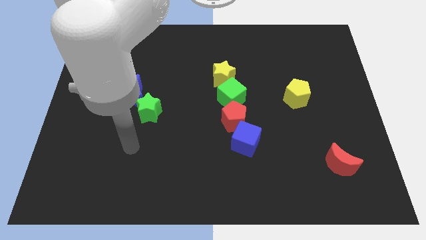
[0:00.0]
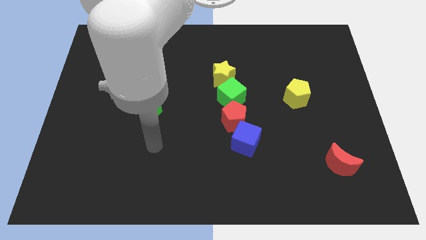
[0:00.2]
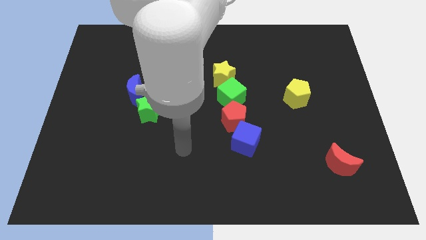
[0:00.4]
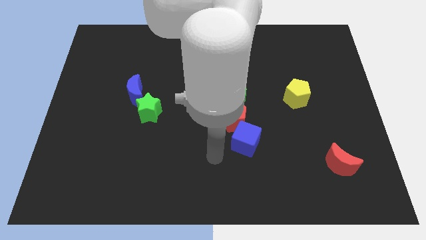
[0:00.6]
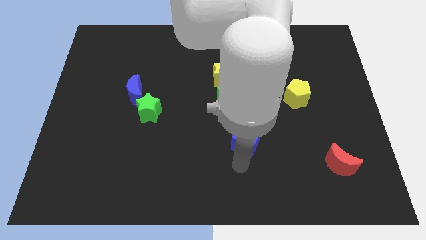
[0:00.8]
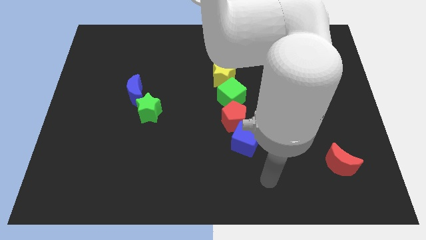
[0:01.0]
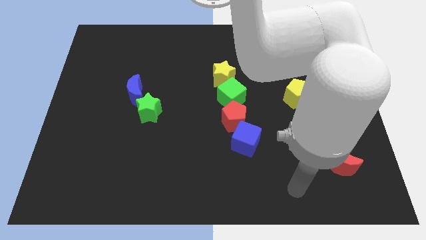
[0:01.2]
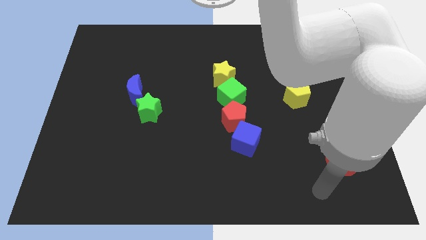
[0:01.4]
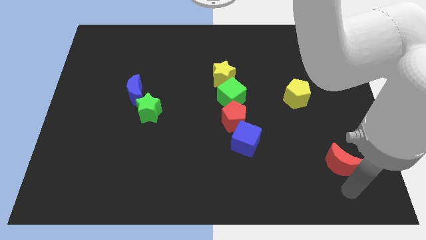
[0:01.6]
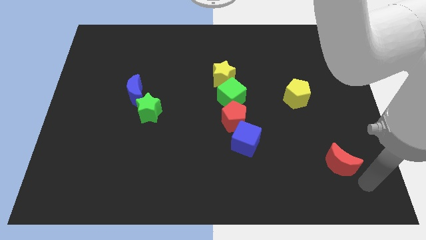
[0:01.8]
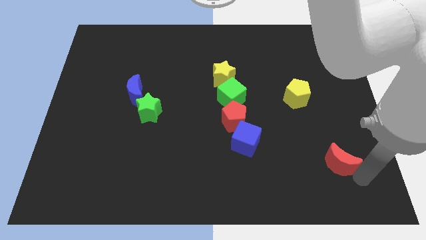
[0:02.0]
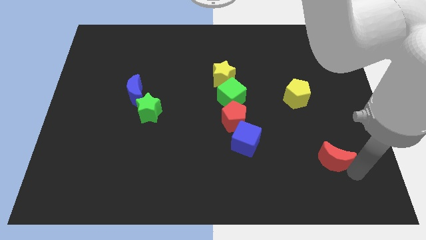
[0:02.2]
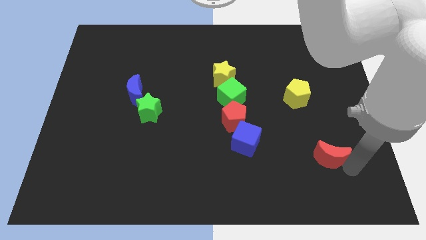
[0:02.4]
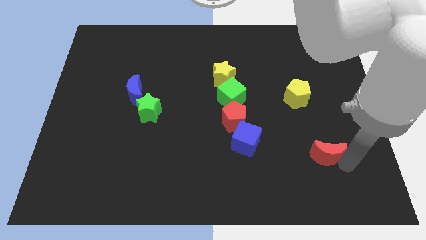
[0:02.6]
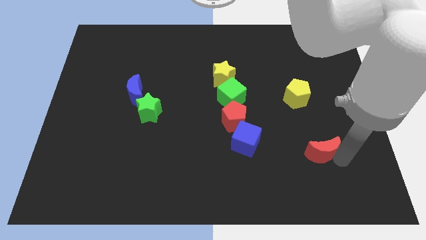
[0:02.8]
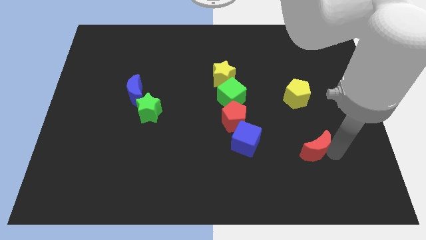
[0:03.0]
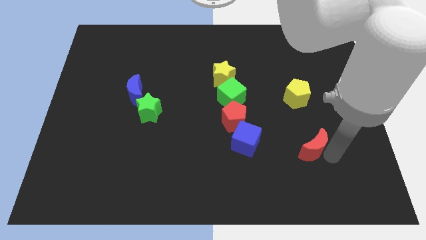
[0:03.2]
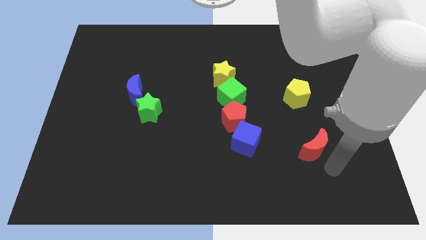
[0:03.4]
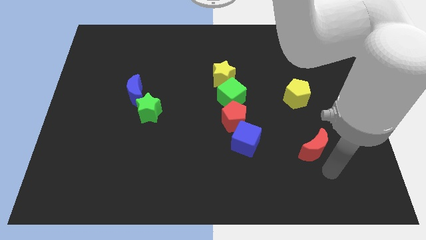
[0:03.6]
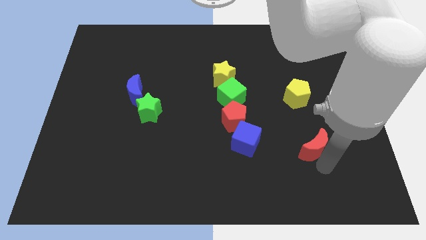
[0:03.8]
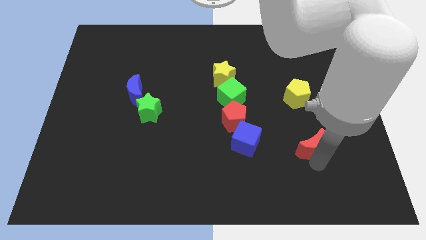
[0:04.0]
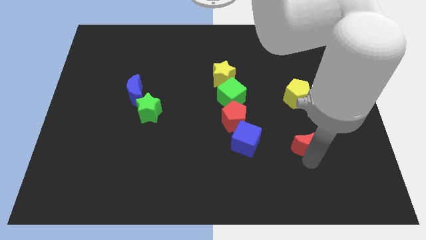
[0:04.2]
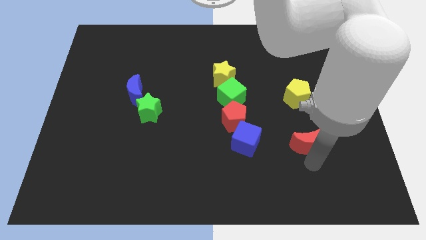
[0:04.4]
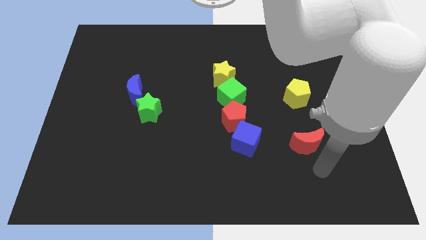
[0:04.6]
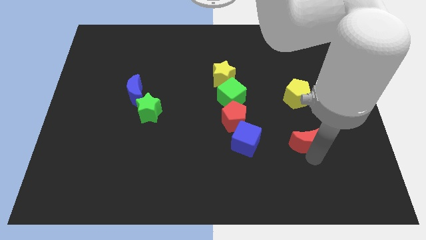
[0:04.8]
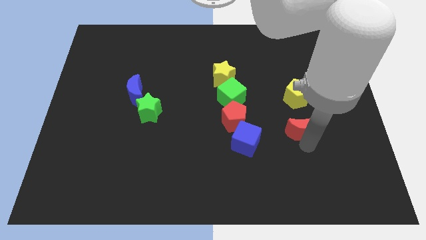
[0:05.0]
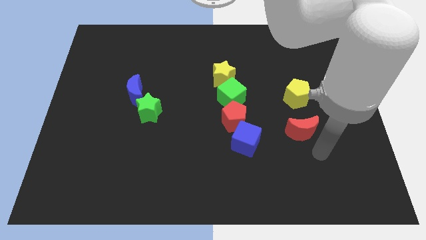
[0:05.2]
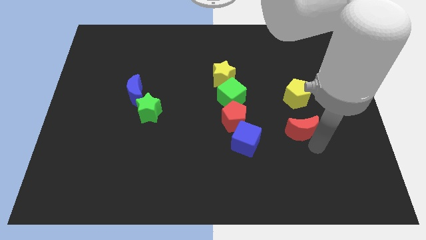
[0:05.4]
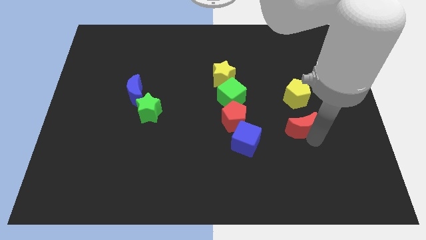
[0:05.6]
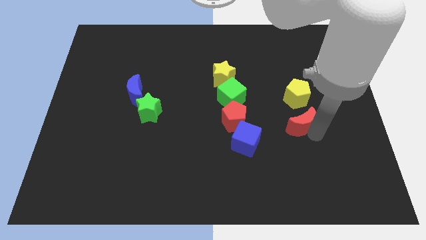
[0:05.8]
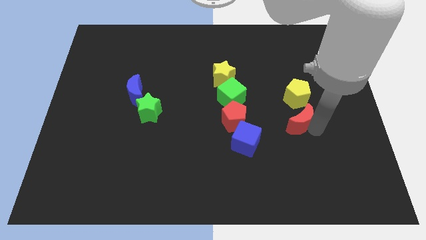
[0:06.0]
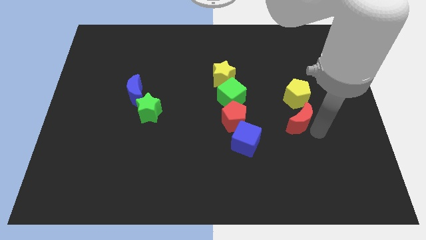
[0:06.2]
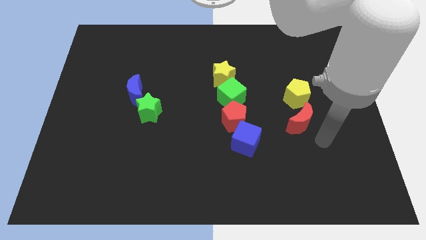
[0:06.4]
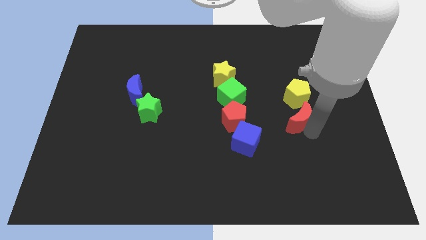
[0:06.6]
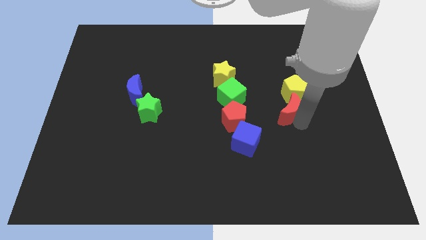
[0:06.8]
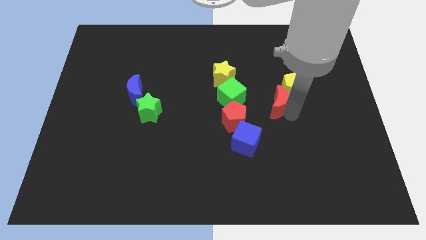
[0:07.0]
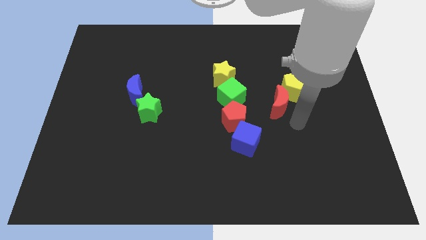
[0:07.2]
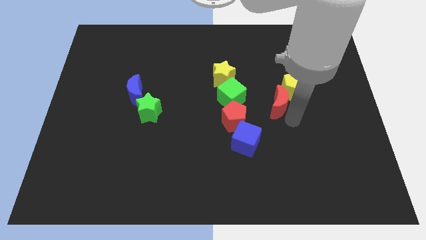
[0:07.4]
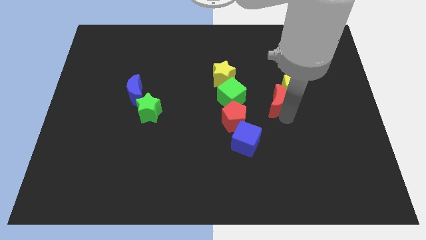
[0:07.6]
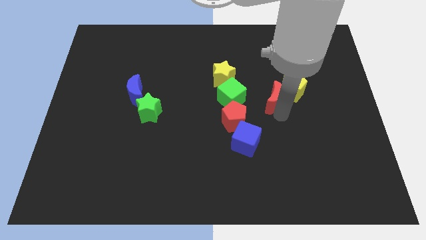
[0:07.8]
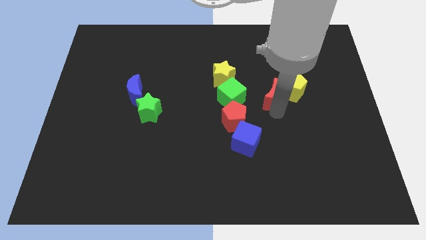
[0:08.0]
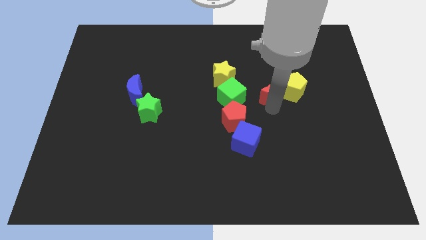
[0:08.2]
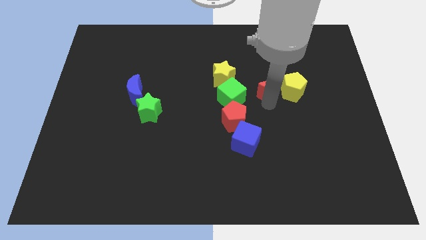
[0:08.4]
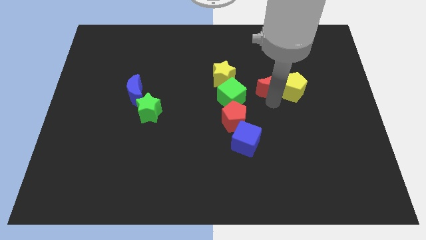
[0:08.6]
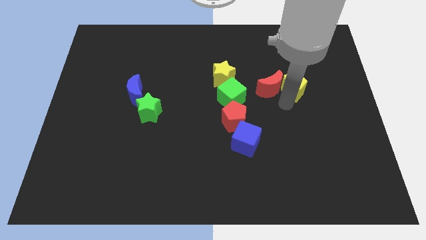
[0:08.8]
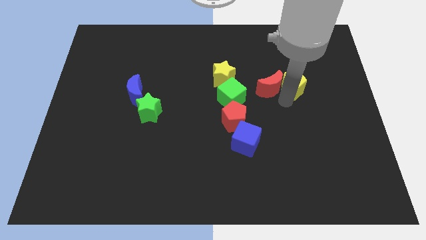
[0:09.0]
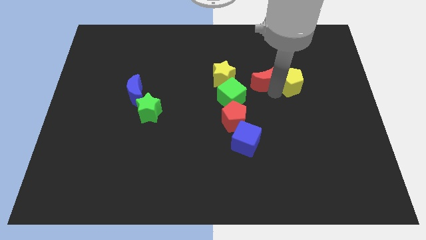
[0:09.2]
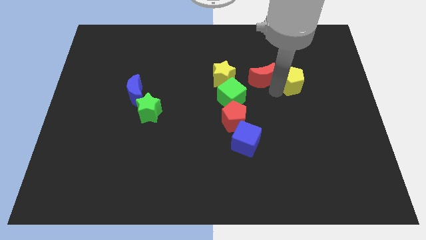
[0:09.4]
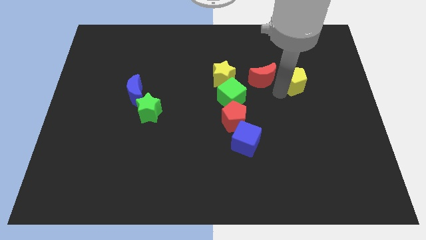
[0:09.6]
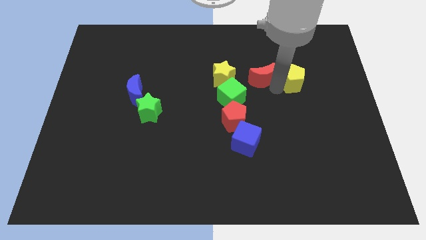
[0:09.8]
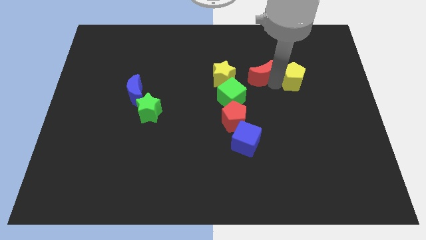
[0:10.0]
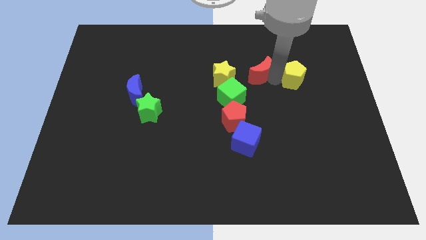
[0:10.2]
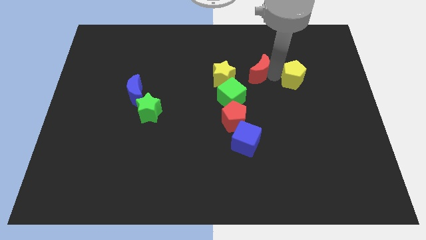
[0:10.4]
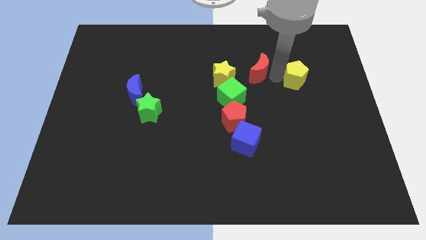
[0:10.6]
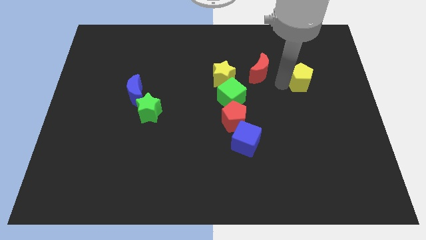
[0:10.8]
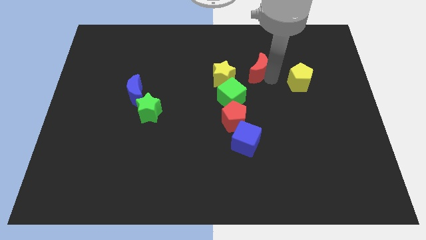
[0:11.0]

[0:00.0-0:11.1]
push the red moon to the top right side of the yellow star
